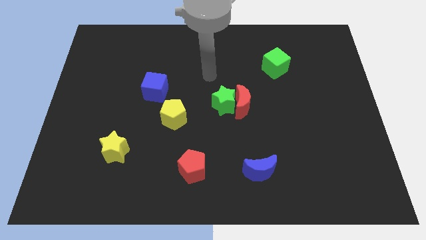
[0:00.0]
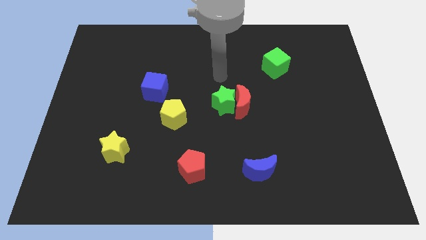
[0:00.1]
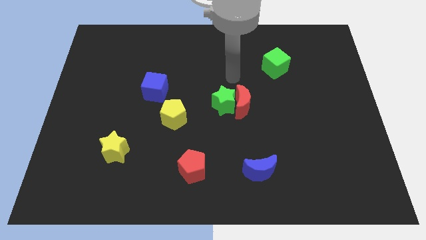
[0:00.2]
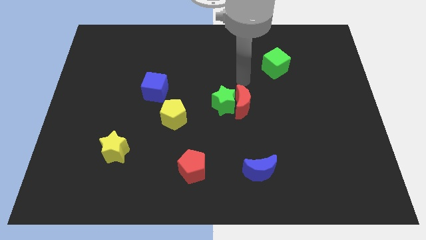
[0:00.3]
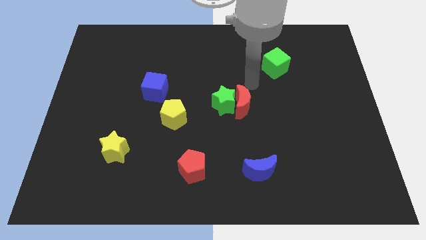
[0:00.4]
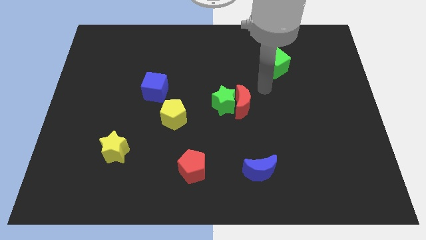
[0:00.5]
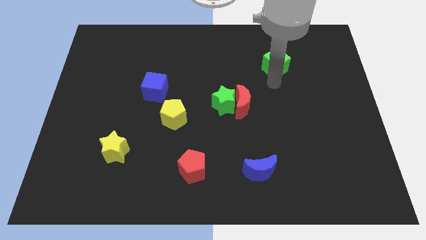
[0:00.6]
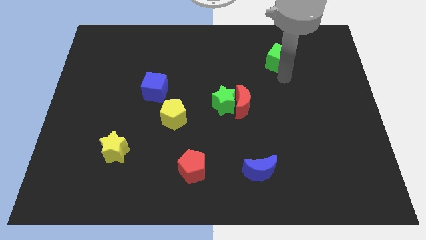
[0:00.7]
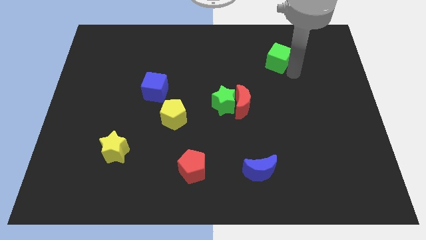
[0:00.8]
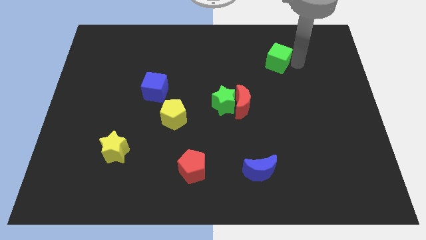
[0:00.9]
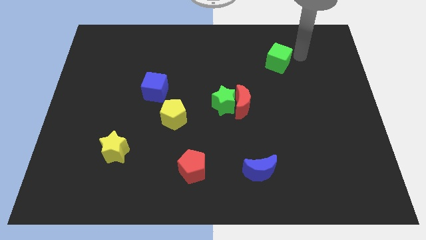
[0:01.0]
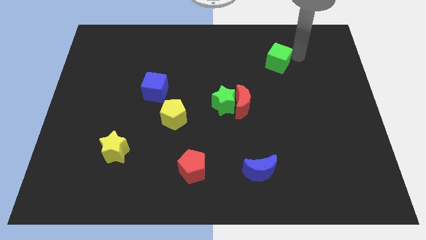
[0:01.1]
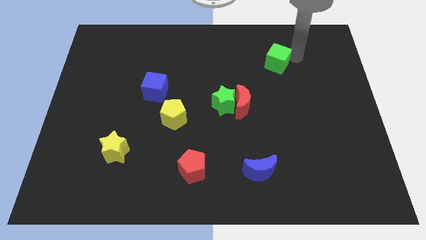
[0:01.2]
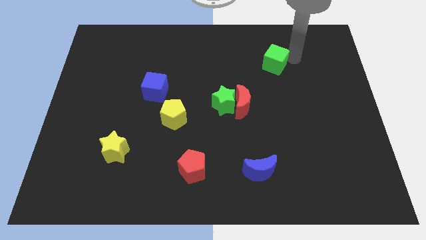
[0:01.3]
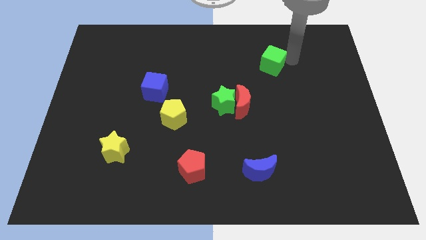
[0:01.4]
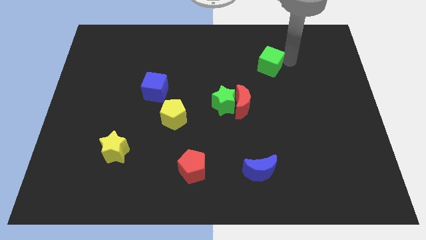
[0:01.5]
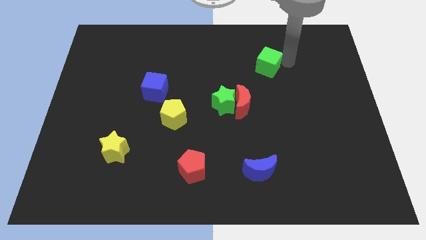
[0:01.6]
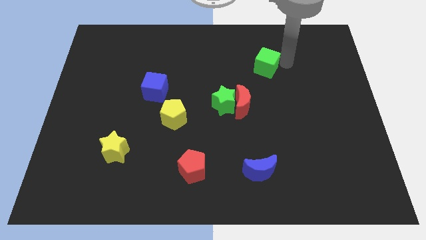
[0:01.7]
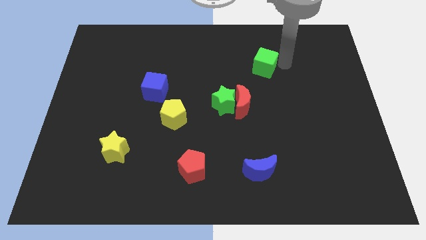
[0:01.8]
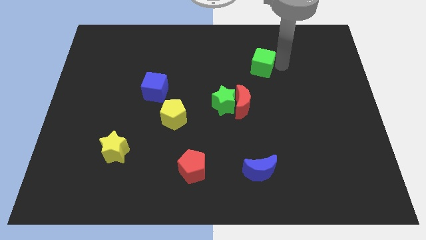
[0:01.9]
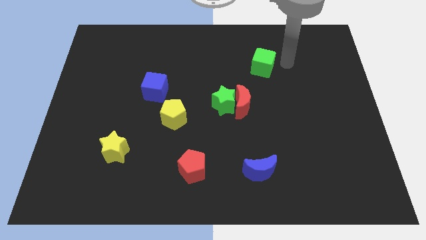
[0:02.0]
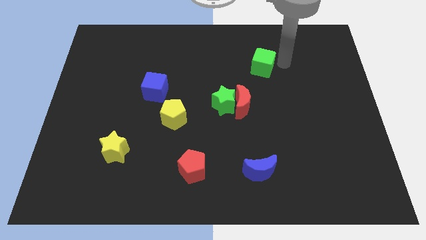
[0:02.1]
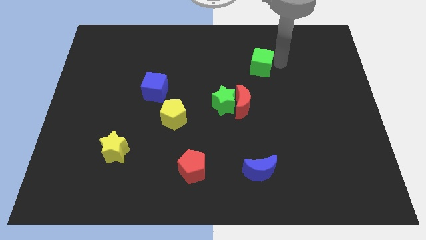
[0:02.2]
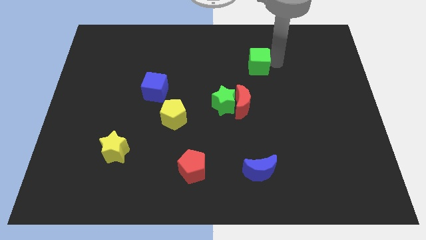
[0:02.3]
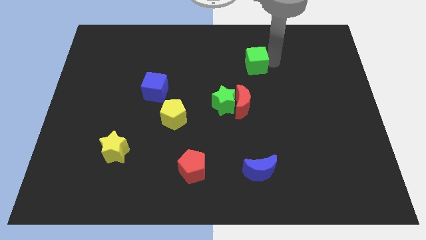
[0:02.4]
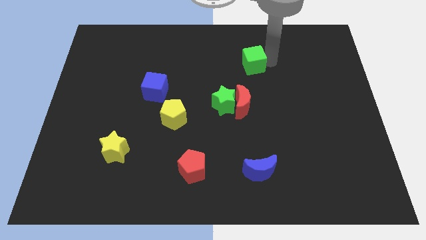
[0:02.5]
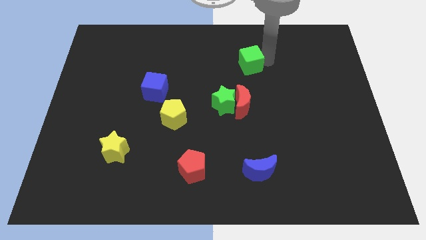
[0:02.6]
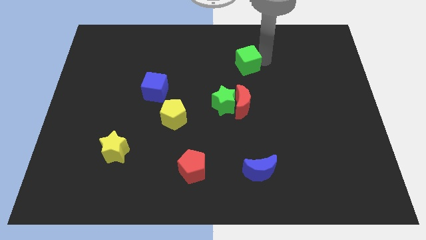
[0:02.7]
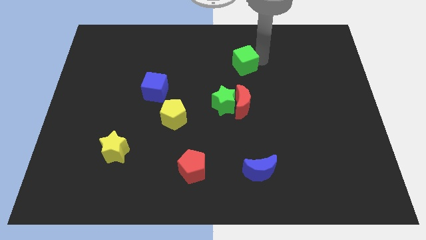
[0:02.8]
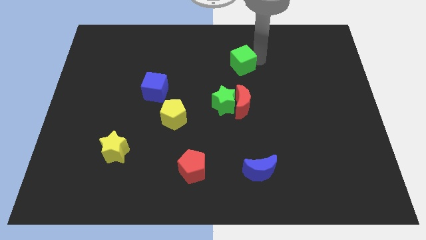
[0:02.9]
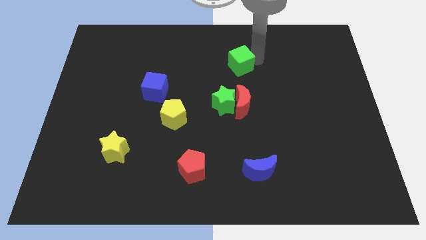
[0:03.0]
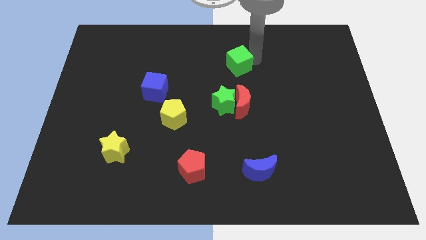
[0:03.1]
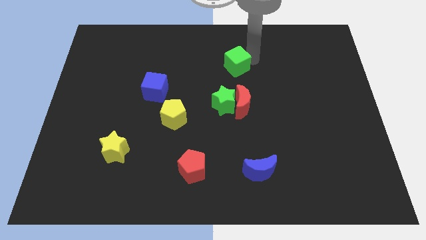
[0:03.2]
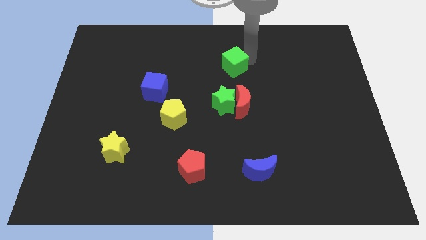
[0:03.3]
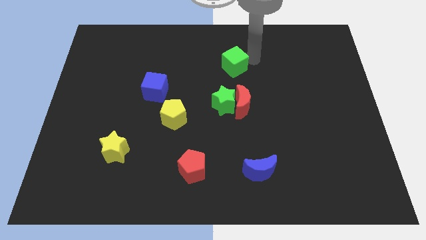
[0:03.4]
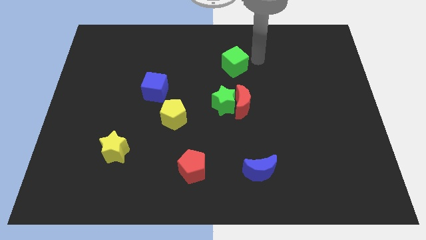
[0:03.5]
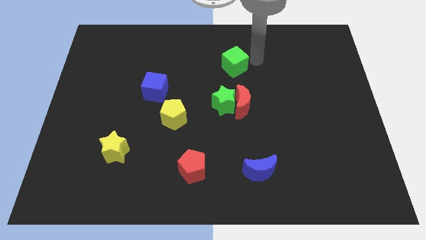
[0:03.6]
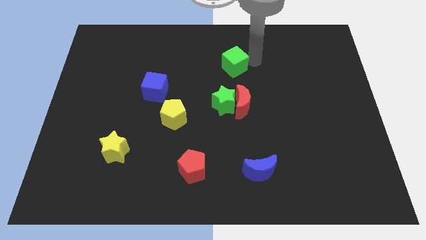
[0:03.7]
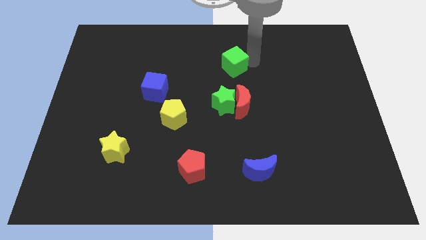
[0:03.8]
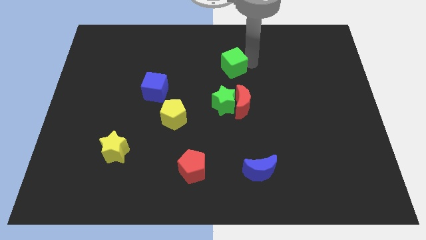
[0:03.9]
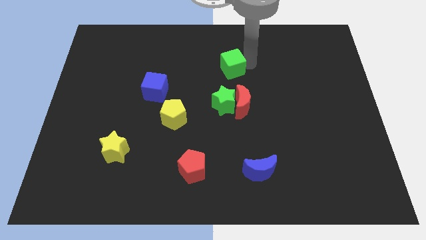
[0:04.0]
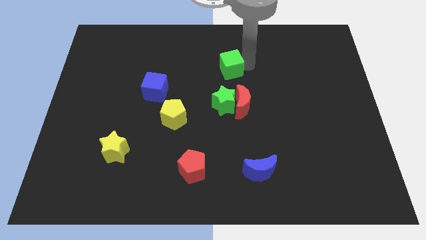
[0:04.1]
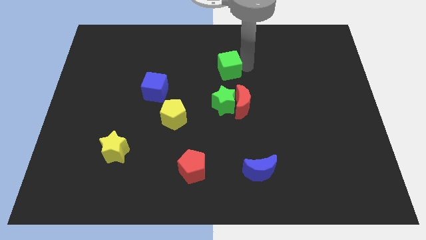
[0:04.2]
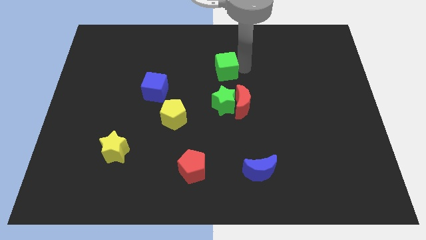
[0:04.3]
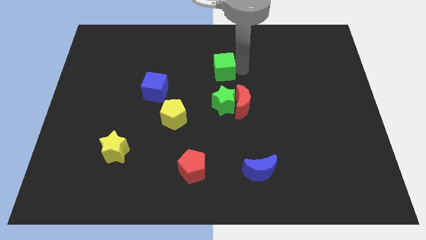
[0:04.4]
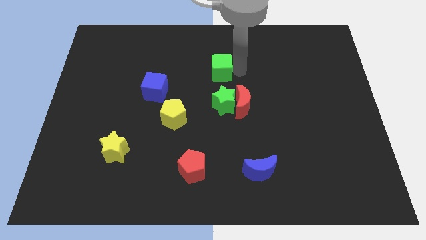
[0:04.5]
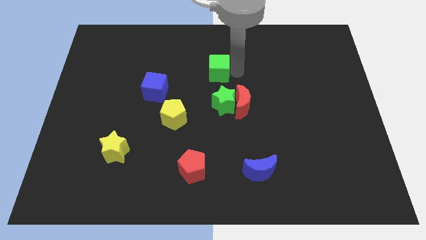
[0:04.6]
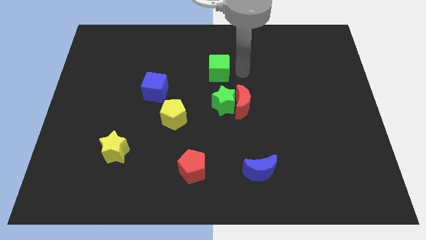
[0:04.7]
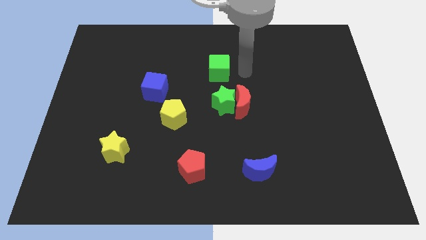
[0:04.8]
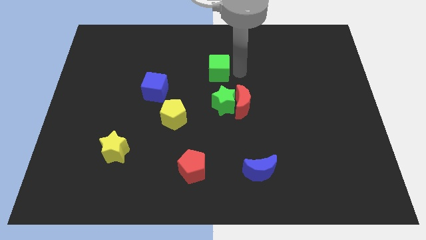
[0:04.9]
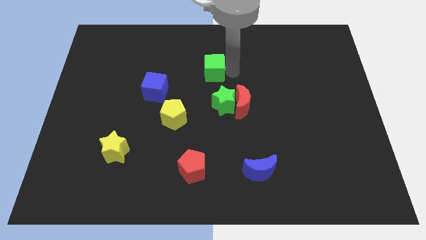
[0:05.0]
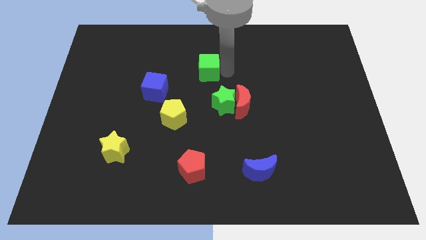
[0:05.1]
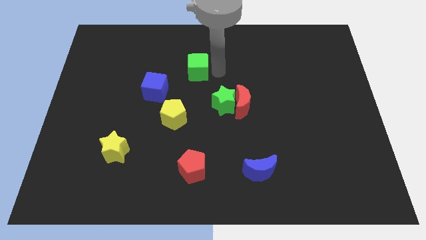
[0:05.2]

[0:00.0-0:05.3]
move the green cube to the left

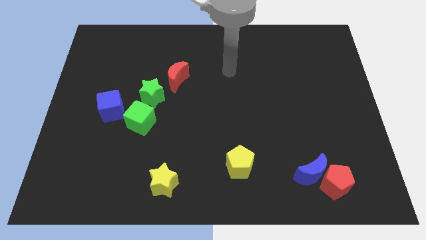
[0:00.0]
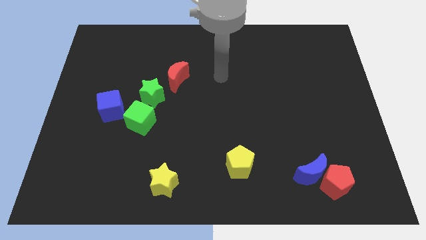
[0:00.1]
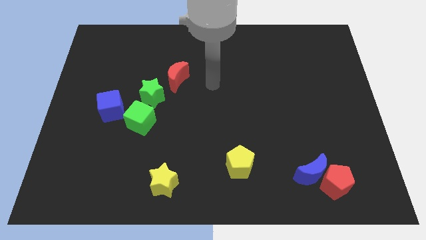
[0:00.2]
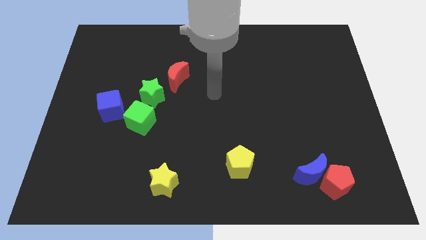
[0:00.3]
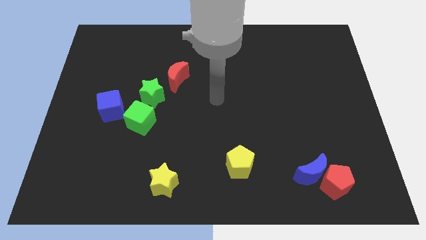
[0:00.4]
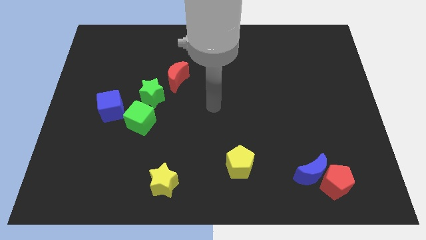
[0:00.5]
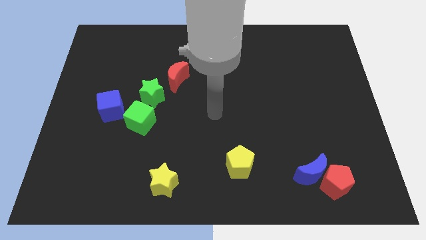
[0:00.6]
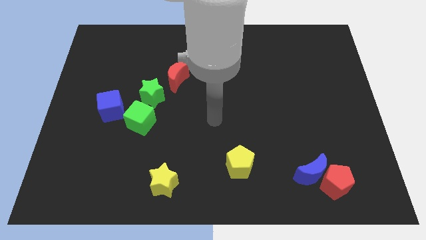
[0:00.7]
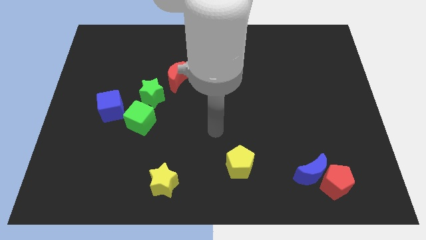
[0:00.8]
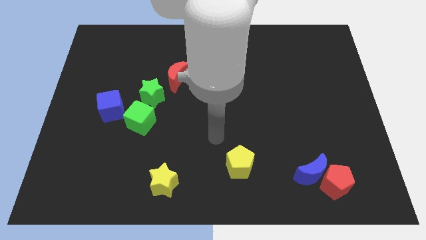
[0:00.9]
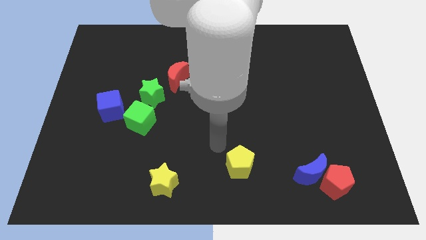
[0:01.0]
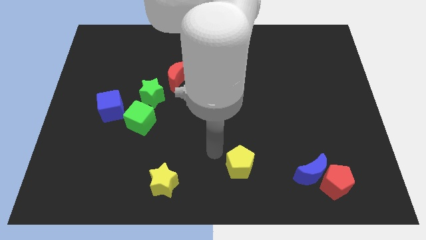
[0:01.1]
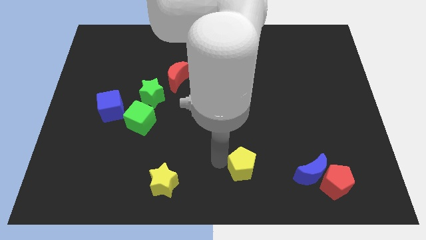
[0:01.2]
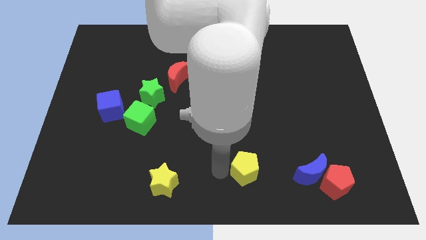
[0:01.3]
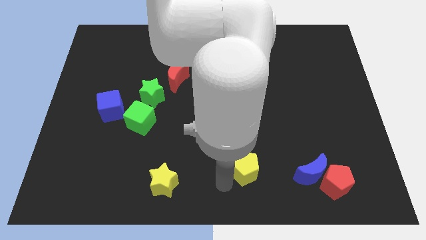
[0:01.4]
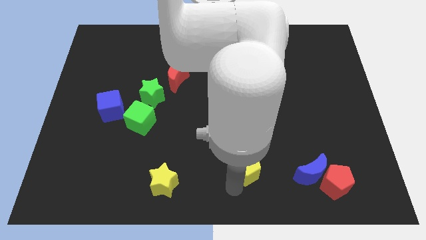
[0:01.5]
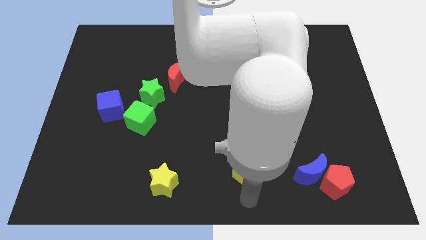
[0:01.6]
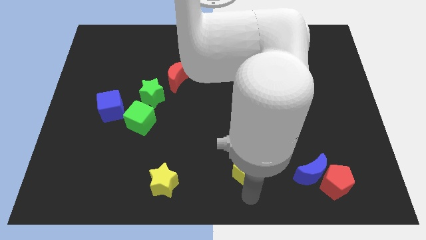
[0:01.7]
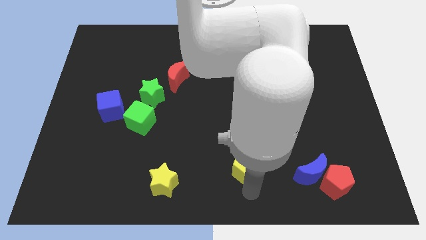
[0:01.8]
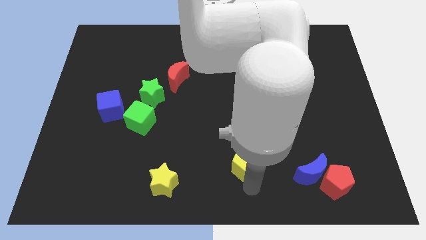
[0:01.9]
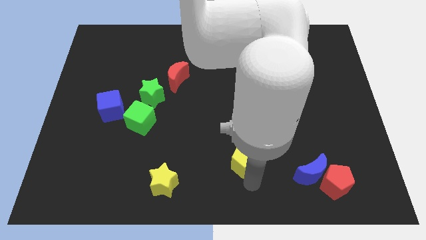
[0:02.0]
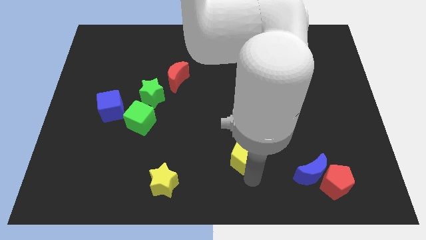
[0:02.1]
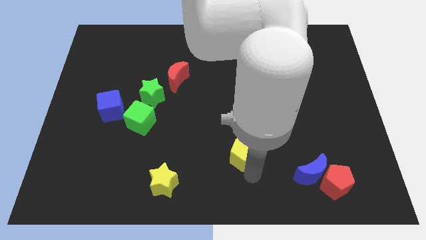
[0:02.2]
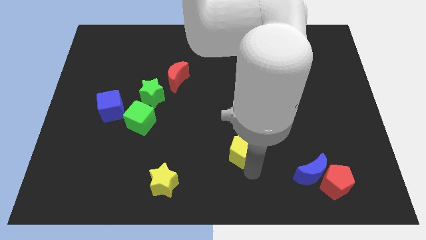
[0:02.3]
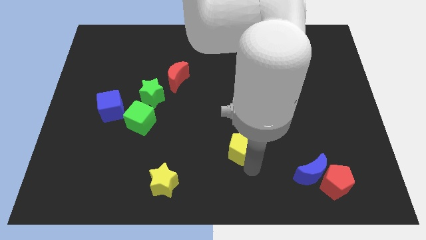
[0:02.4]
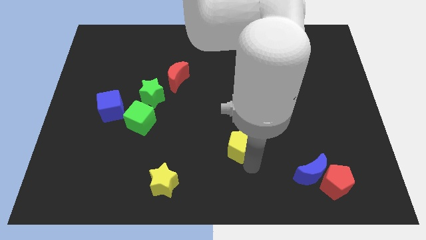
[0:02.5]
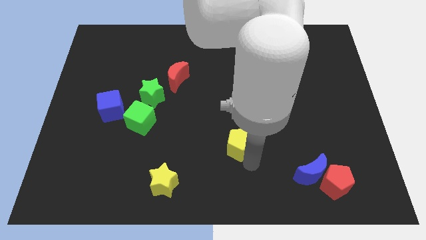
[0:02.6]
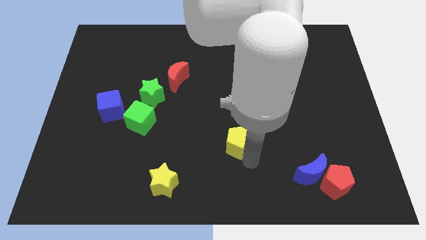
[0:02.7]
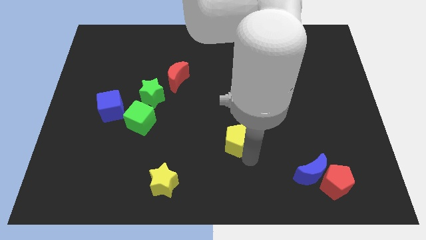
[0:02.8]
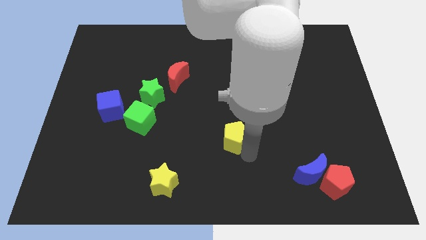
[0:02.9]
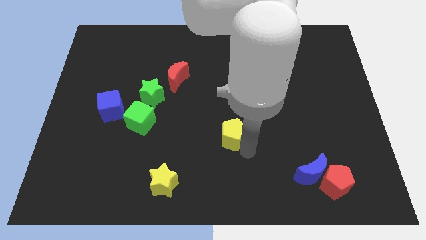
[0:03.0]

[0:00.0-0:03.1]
move the yellow pentagon upwards somewhat

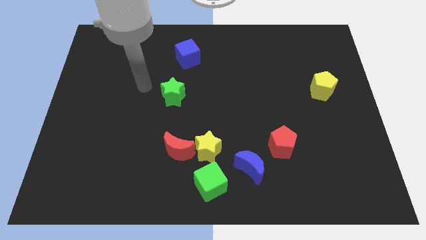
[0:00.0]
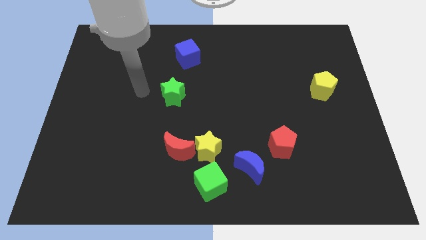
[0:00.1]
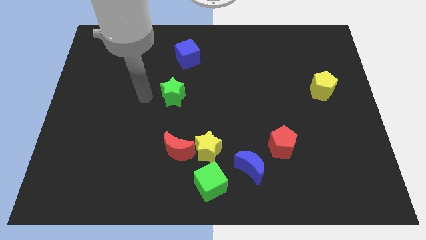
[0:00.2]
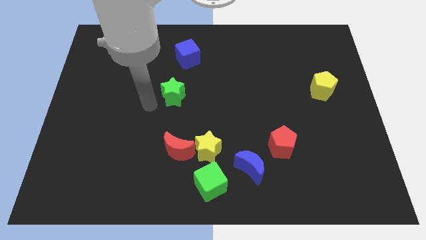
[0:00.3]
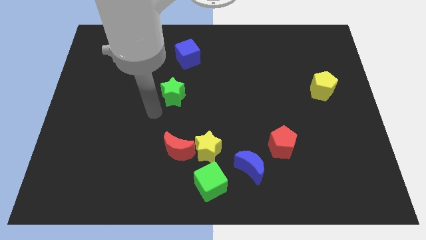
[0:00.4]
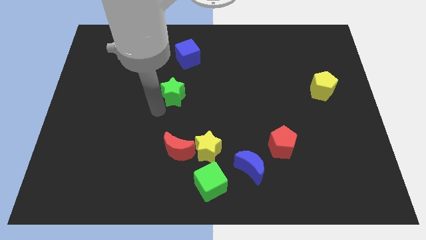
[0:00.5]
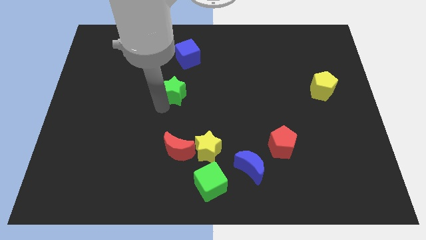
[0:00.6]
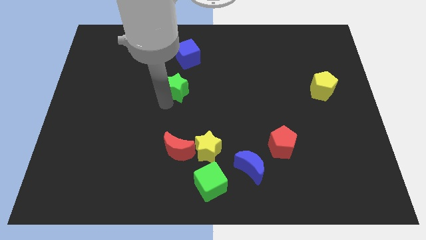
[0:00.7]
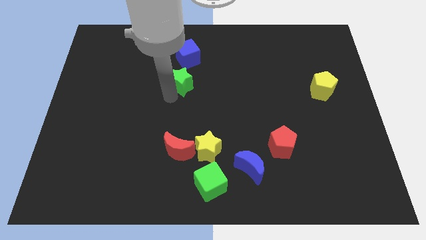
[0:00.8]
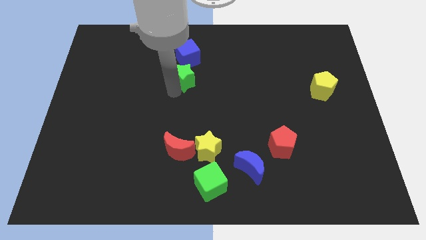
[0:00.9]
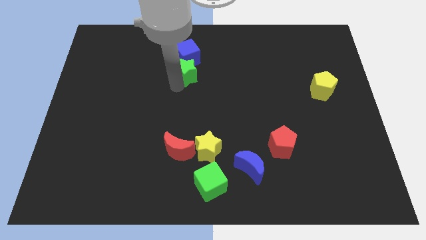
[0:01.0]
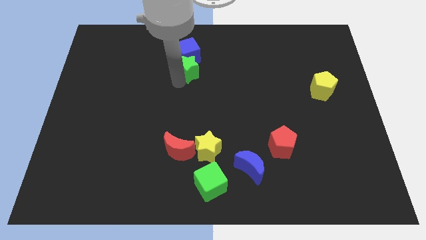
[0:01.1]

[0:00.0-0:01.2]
push the green star a little diagonally upwards and right
